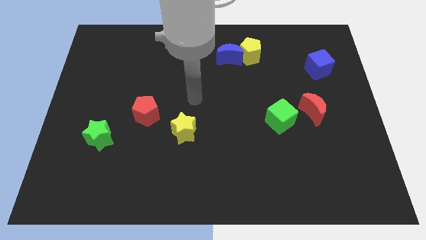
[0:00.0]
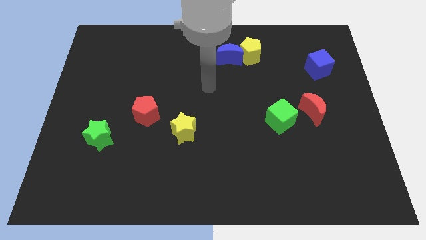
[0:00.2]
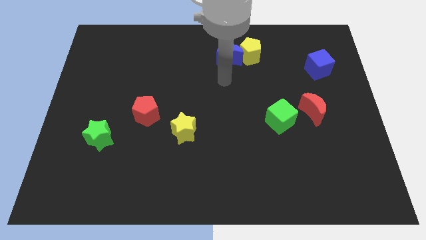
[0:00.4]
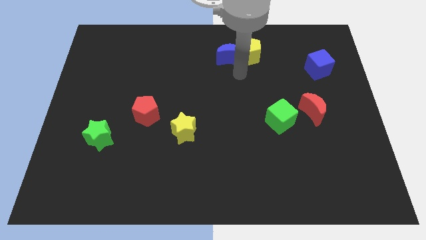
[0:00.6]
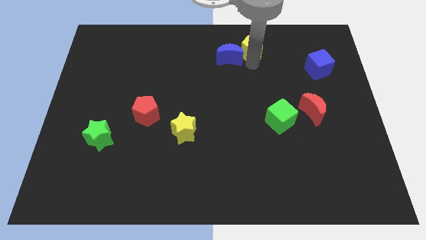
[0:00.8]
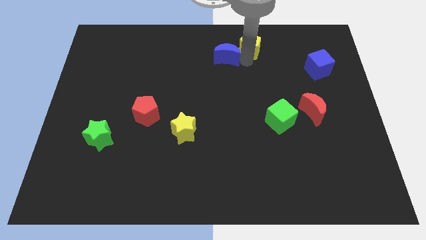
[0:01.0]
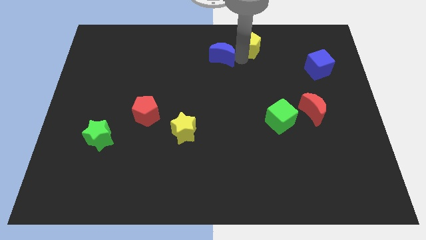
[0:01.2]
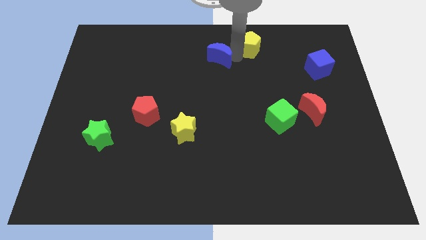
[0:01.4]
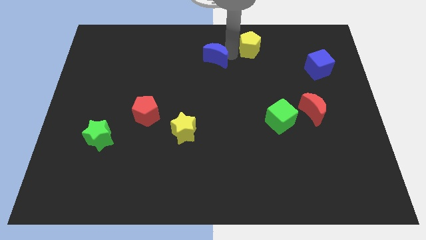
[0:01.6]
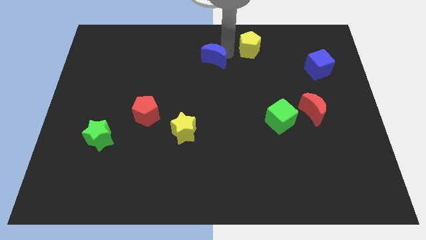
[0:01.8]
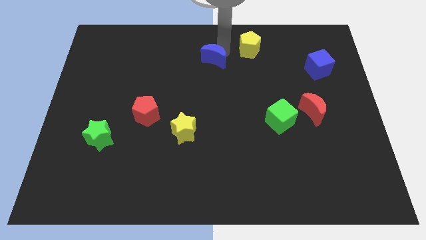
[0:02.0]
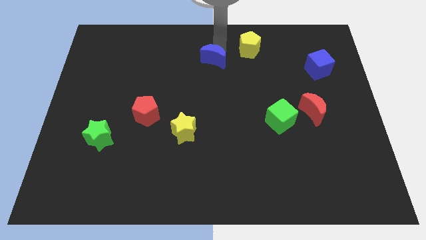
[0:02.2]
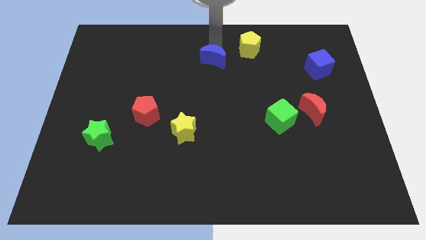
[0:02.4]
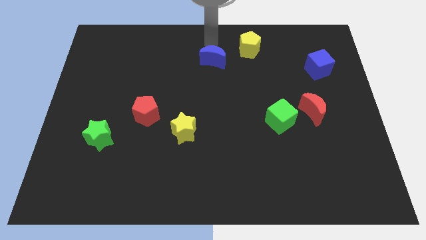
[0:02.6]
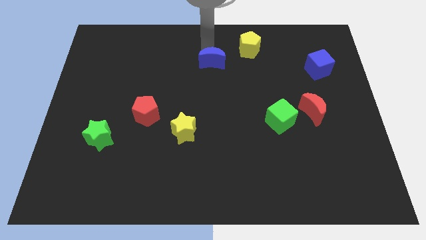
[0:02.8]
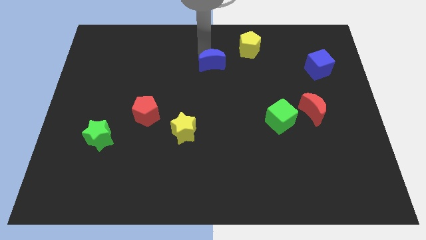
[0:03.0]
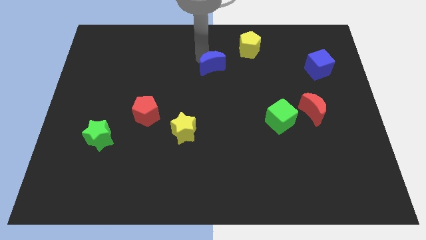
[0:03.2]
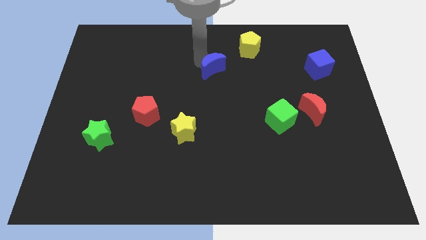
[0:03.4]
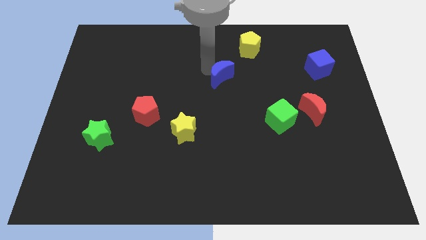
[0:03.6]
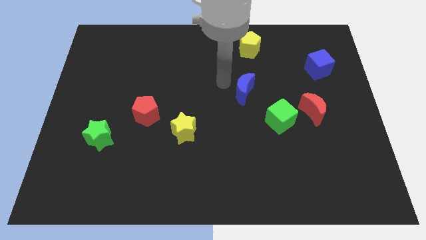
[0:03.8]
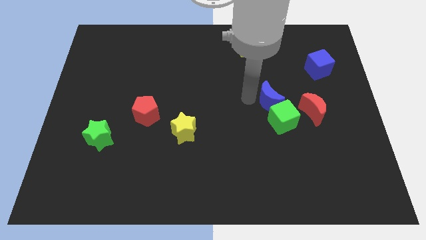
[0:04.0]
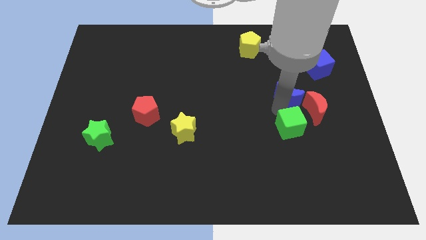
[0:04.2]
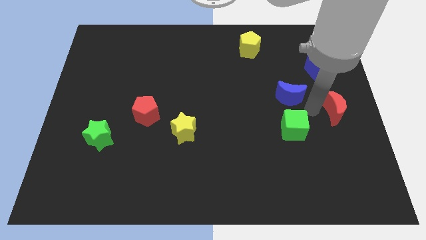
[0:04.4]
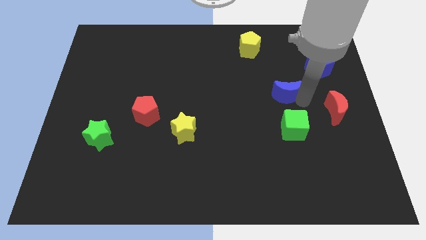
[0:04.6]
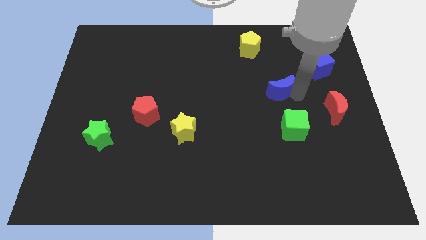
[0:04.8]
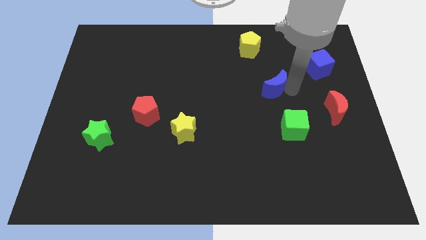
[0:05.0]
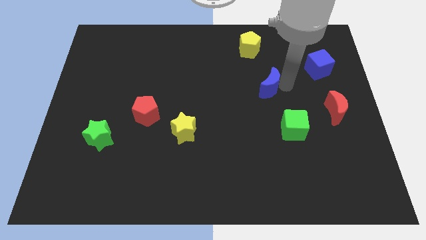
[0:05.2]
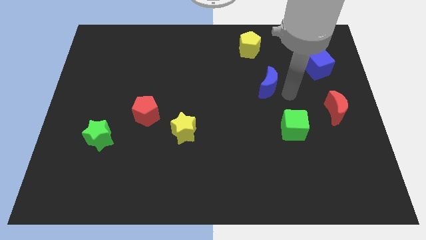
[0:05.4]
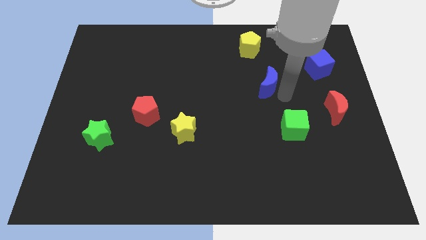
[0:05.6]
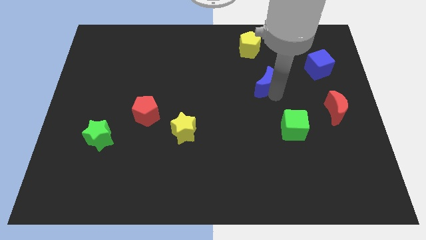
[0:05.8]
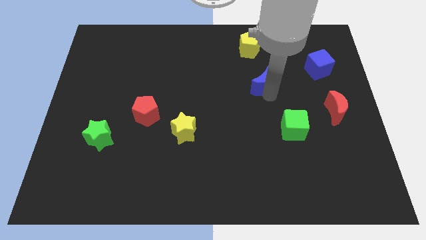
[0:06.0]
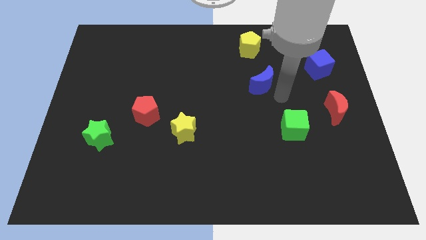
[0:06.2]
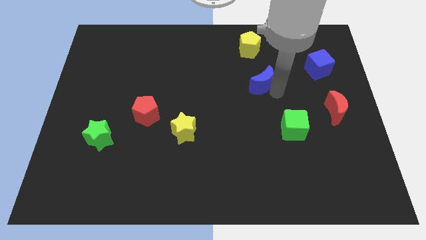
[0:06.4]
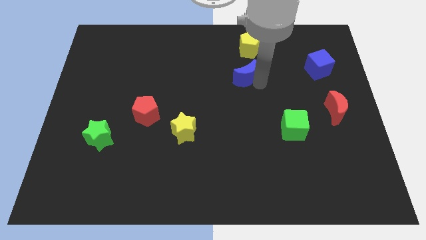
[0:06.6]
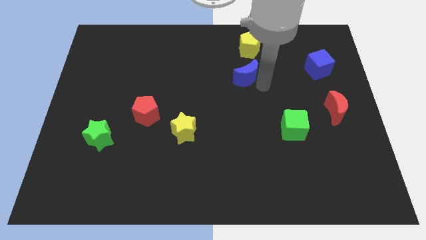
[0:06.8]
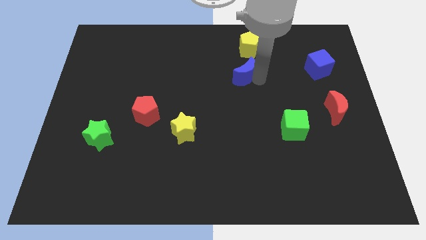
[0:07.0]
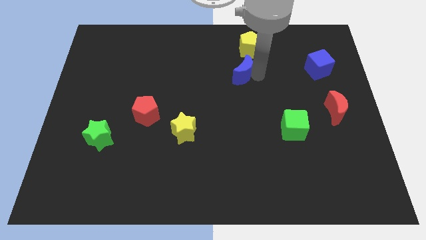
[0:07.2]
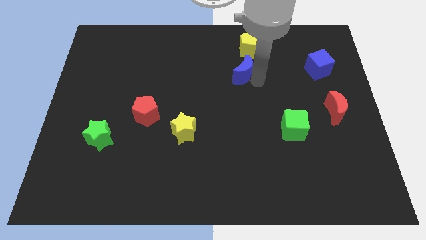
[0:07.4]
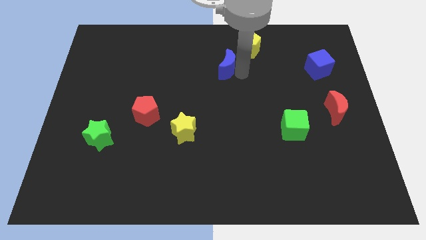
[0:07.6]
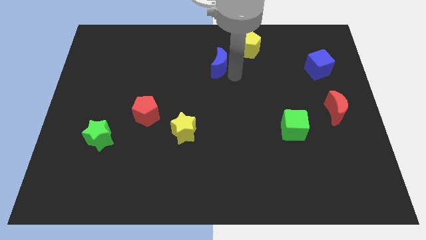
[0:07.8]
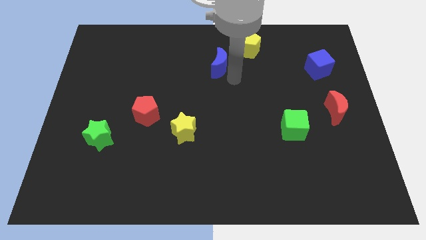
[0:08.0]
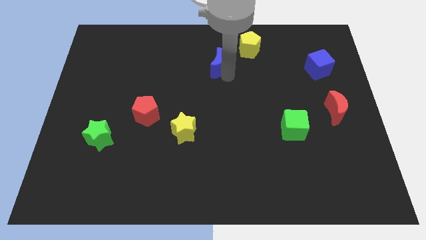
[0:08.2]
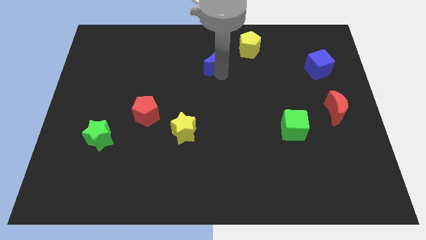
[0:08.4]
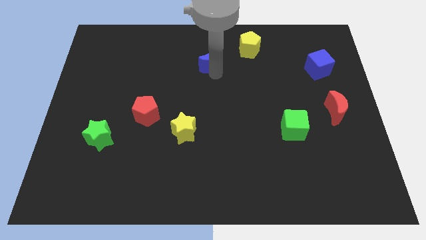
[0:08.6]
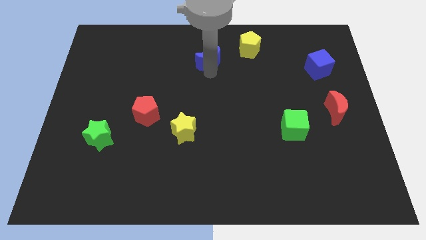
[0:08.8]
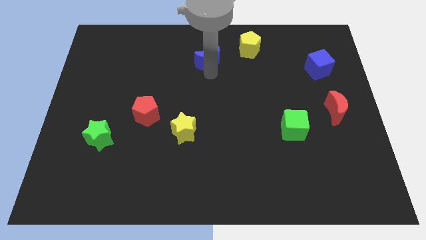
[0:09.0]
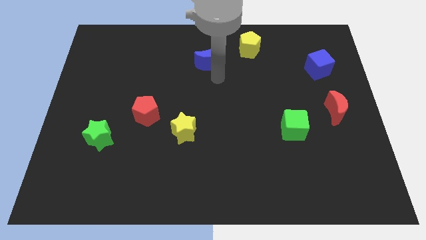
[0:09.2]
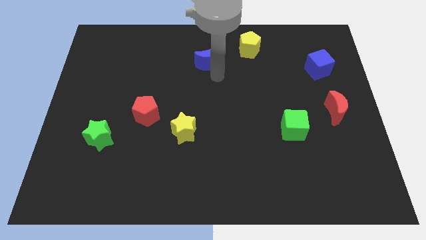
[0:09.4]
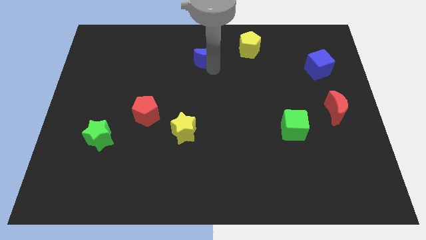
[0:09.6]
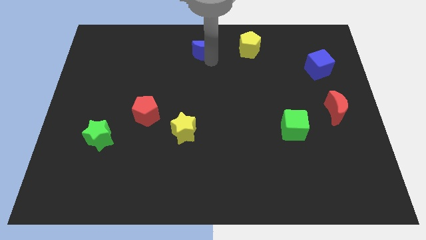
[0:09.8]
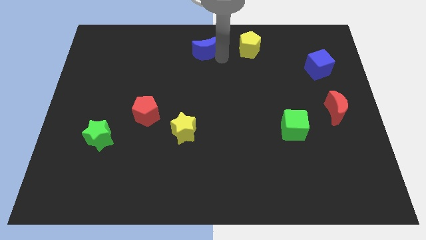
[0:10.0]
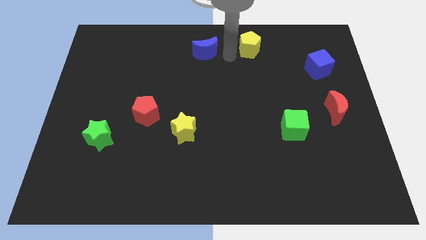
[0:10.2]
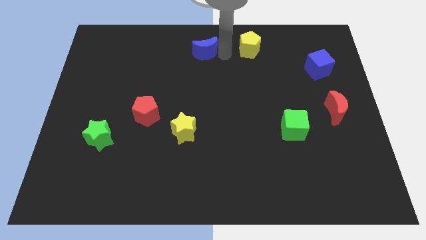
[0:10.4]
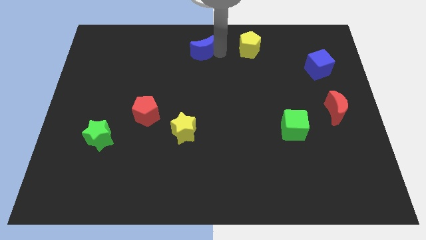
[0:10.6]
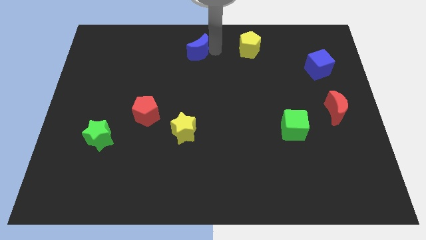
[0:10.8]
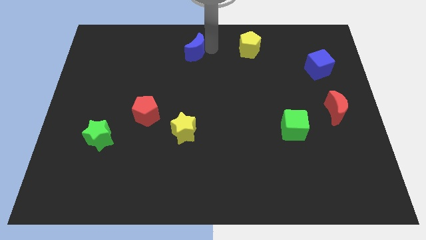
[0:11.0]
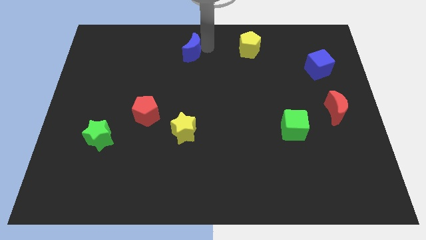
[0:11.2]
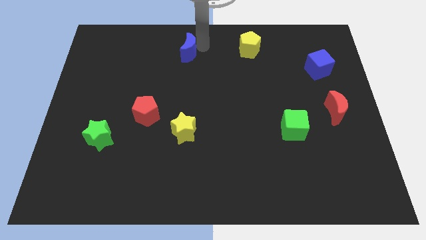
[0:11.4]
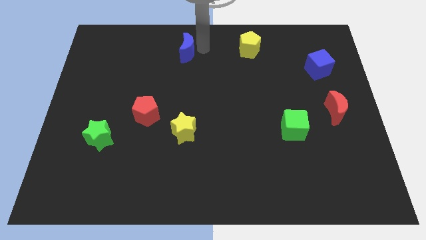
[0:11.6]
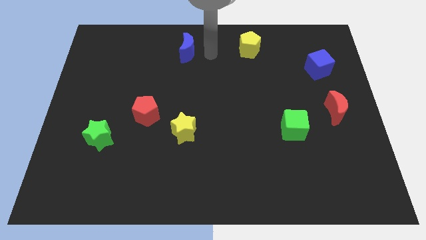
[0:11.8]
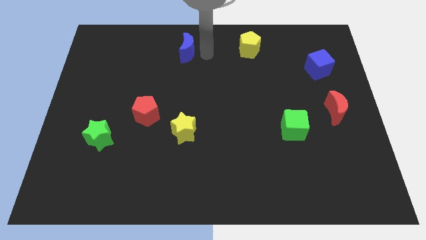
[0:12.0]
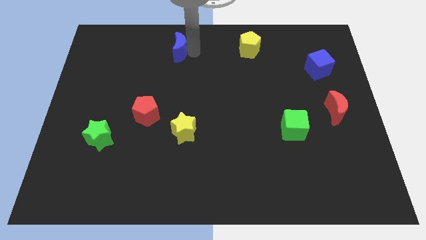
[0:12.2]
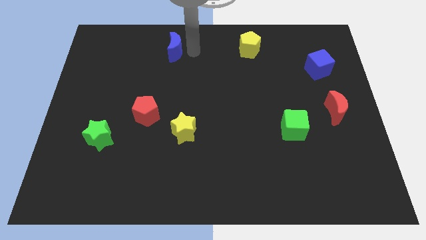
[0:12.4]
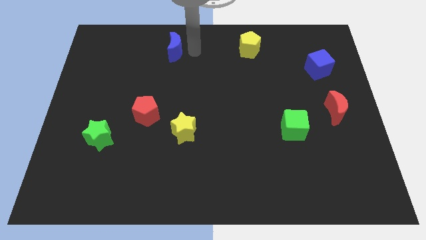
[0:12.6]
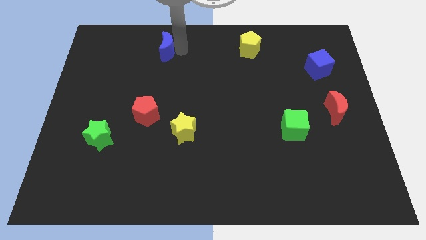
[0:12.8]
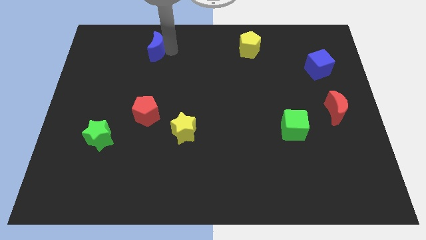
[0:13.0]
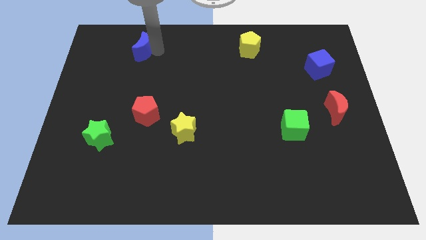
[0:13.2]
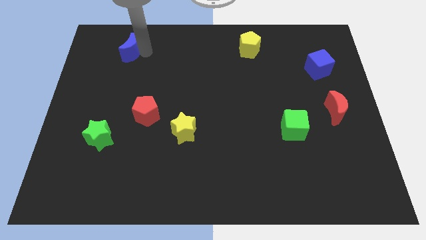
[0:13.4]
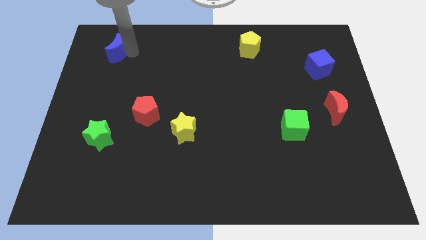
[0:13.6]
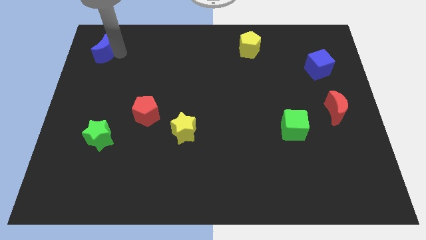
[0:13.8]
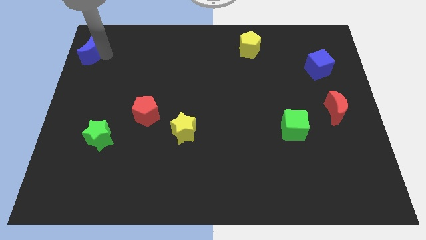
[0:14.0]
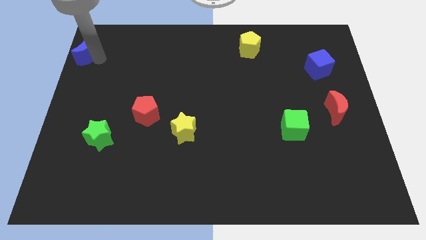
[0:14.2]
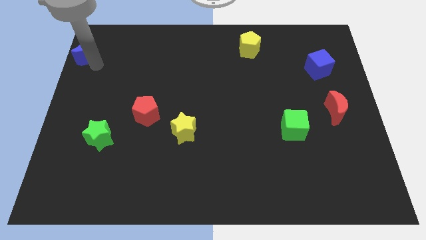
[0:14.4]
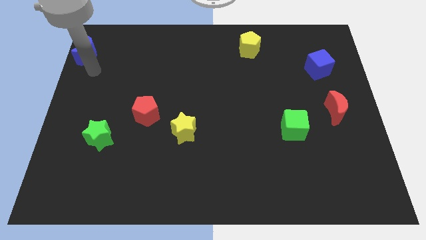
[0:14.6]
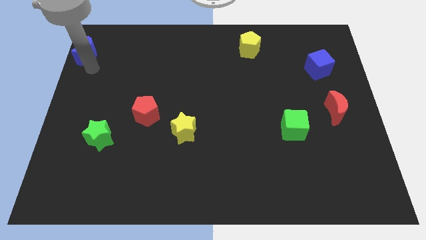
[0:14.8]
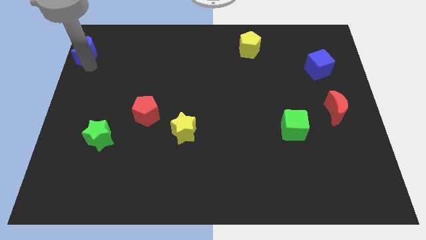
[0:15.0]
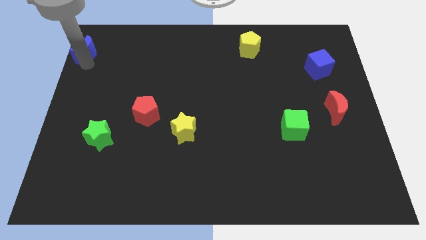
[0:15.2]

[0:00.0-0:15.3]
put the blue moon to the upper left corner

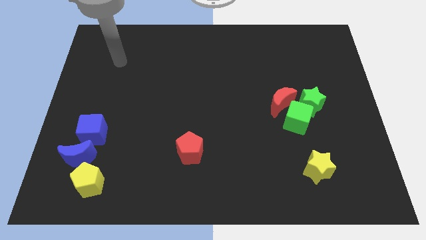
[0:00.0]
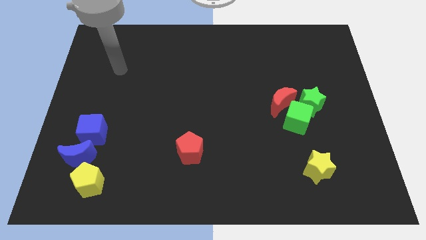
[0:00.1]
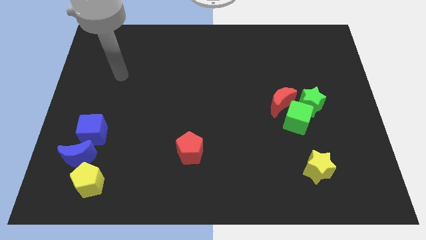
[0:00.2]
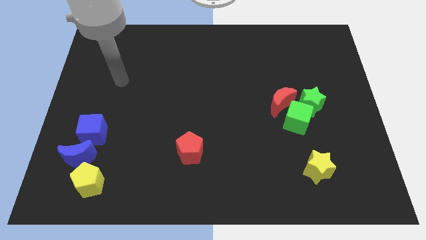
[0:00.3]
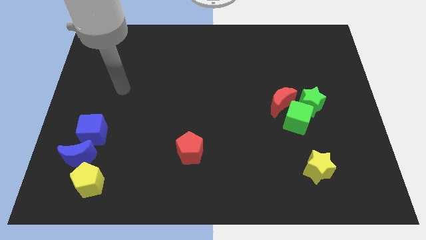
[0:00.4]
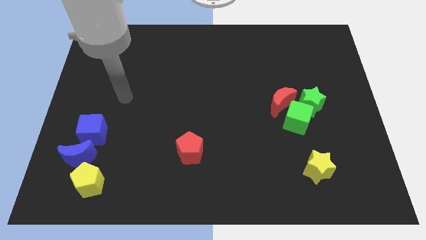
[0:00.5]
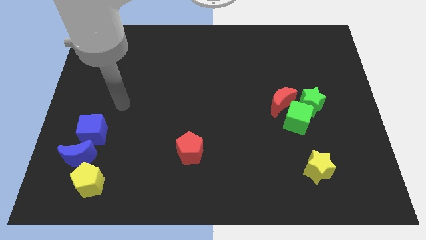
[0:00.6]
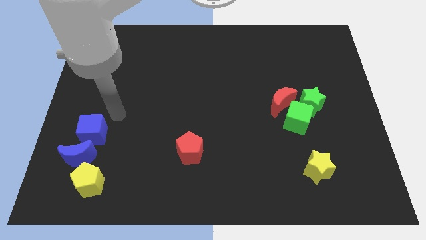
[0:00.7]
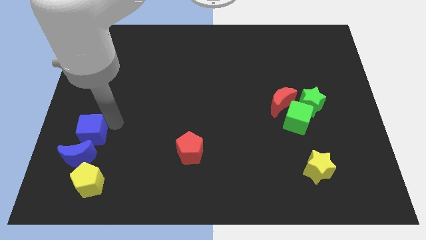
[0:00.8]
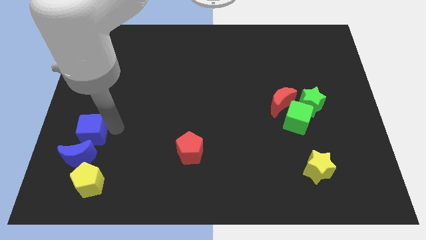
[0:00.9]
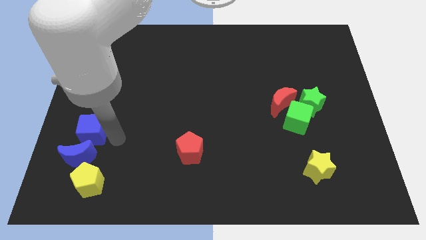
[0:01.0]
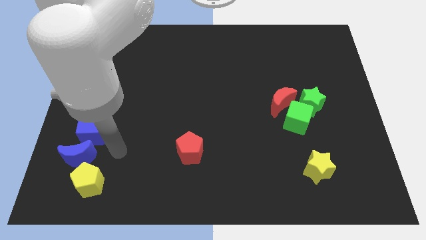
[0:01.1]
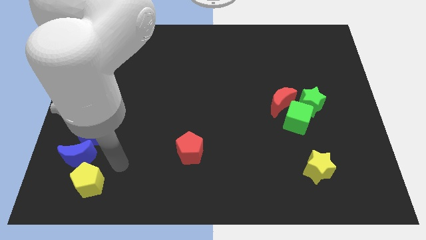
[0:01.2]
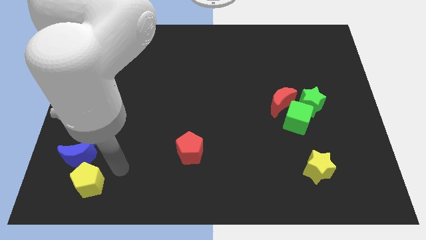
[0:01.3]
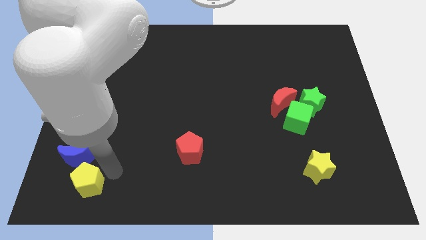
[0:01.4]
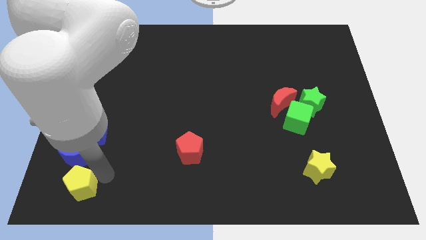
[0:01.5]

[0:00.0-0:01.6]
slide the yellow pentagon to the bottom left
